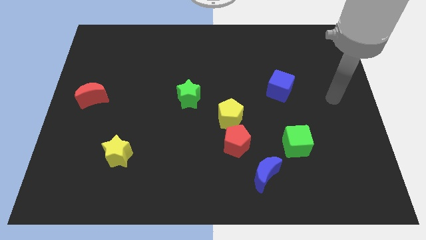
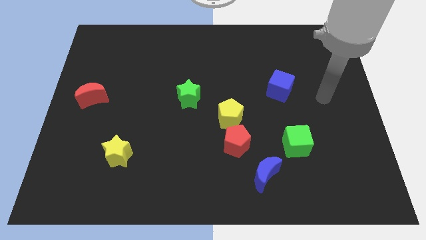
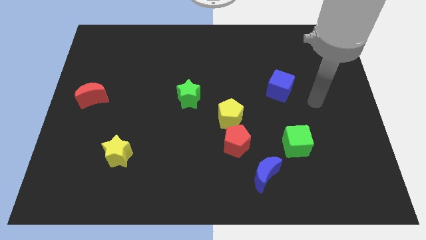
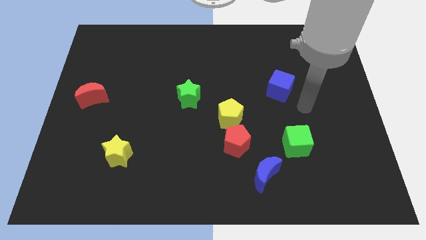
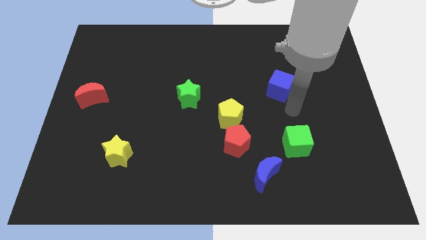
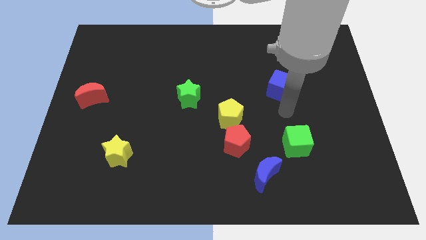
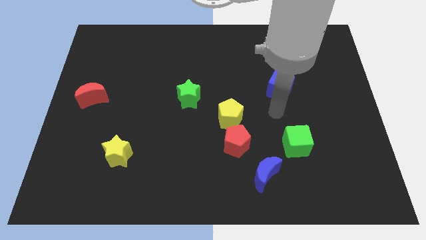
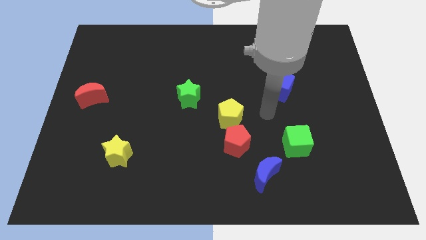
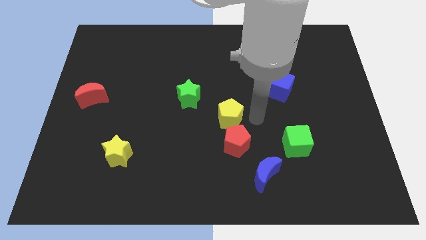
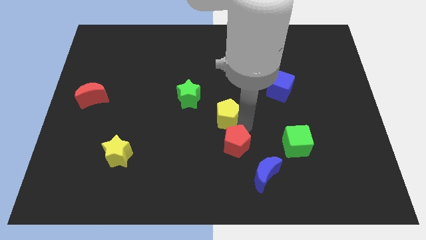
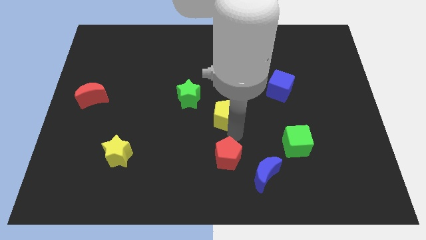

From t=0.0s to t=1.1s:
pull the yellow pentagon apart from the red pentagon

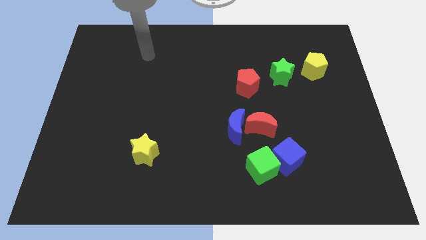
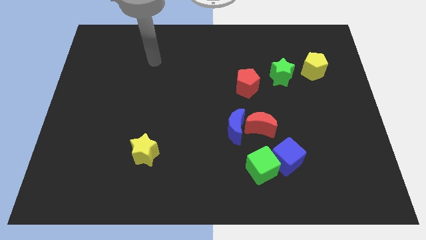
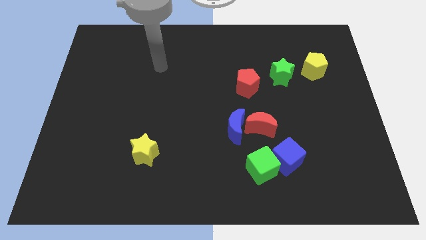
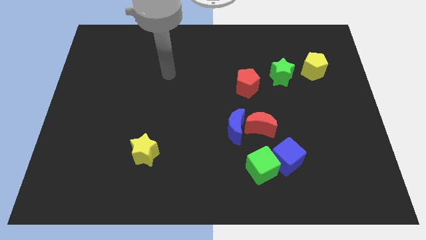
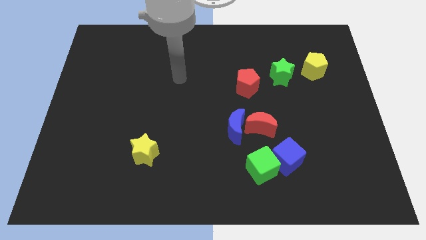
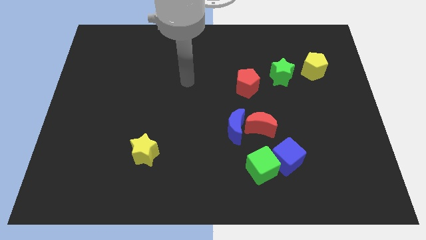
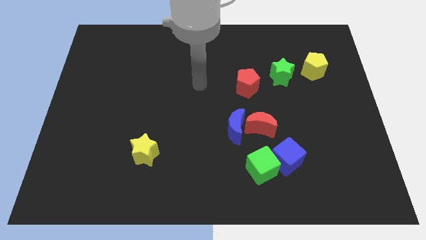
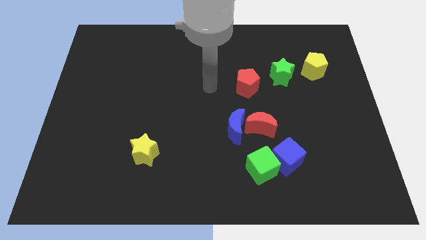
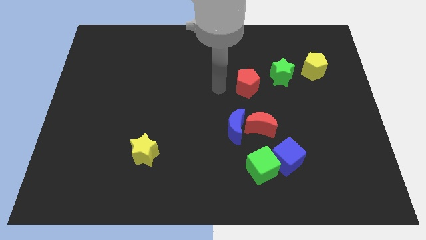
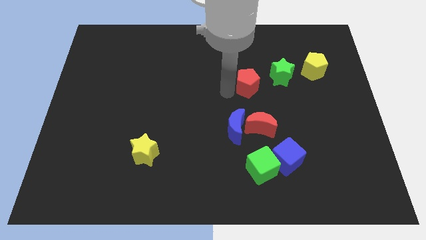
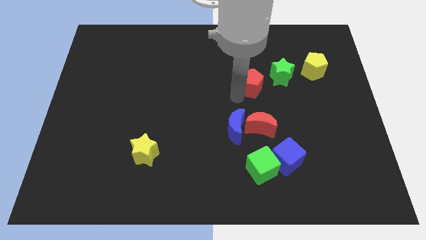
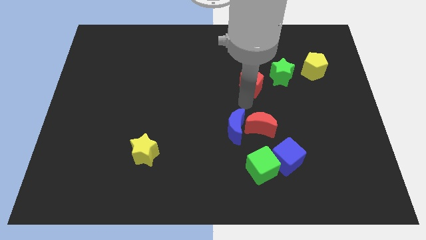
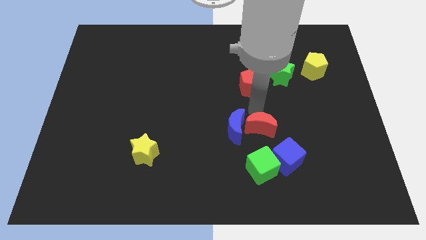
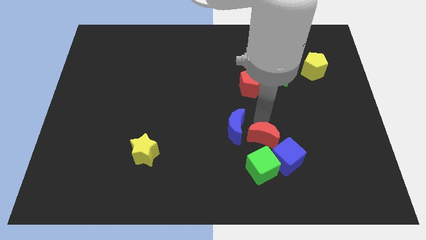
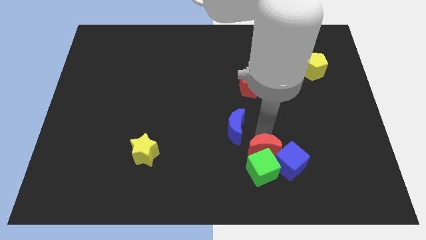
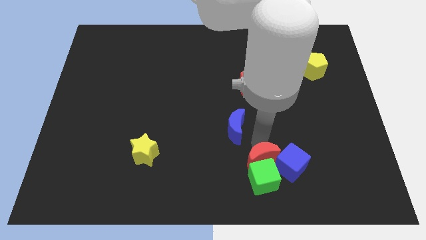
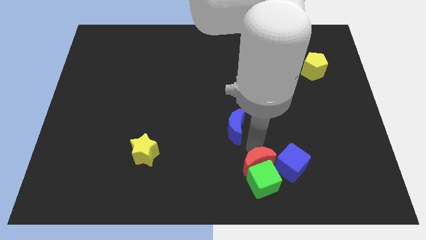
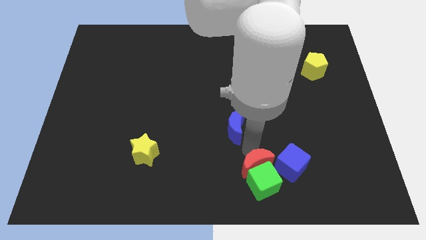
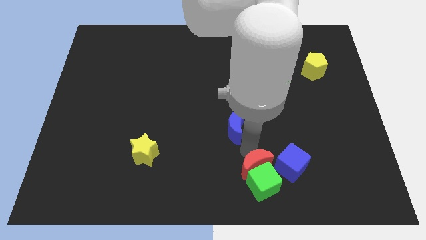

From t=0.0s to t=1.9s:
separate the blue moon from the red moon

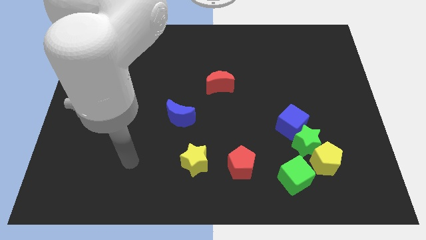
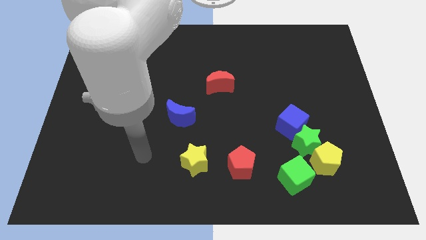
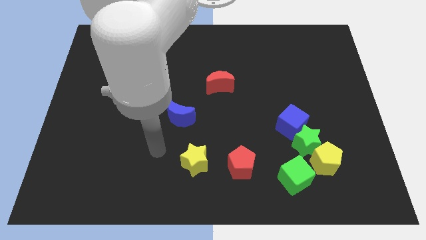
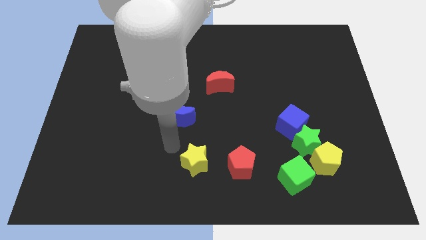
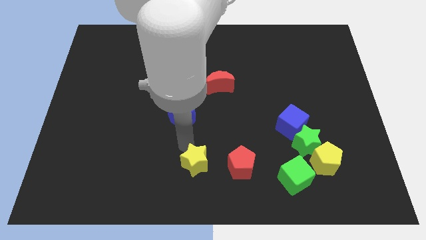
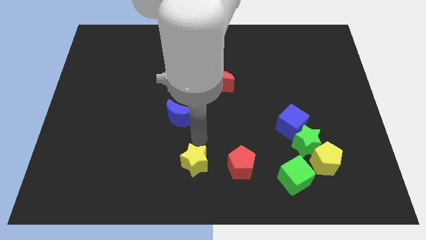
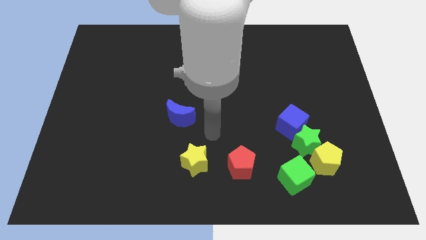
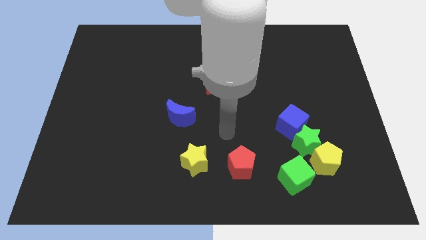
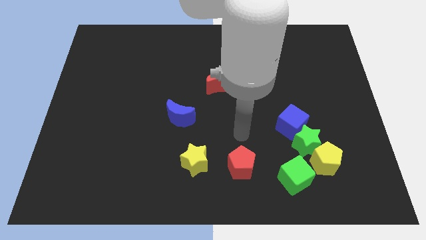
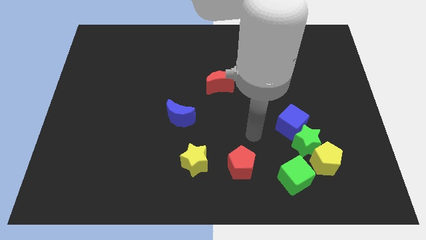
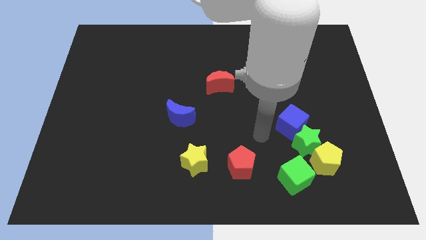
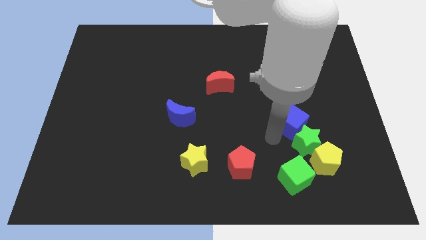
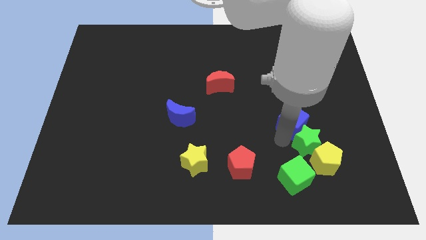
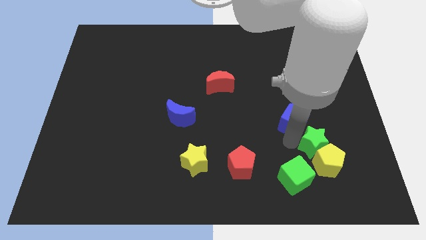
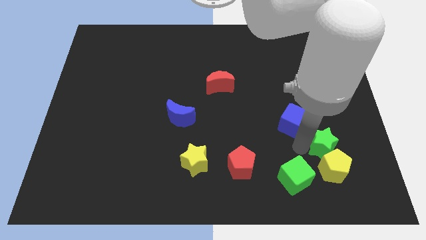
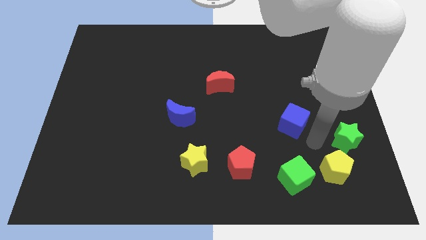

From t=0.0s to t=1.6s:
pull the blue cube apart from the green star

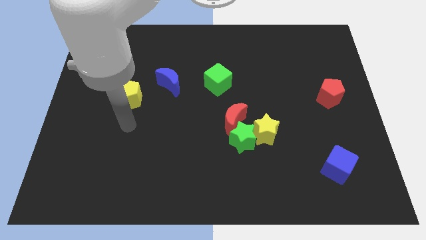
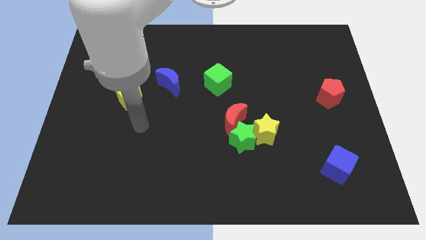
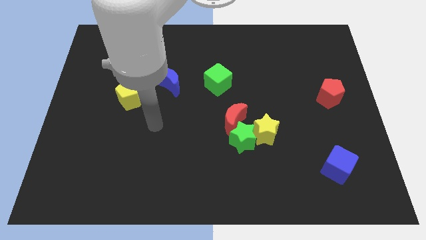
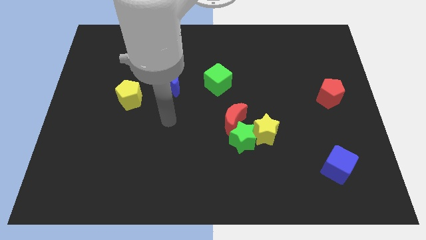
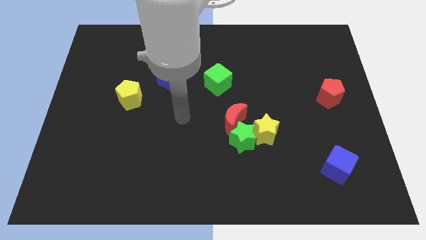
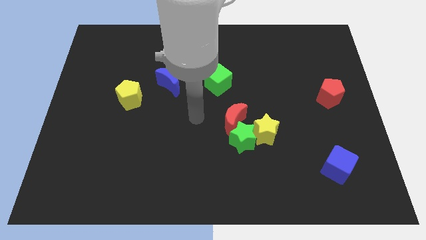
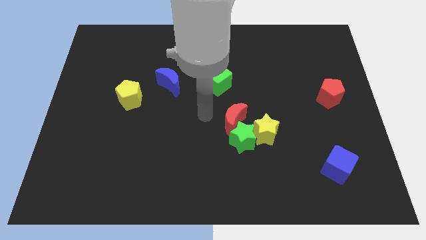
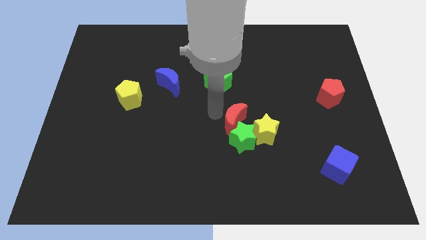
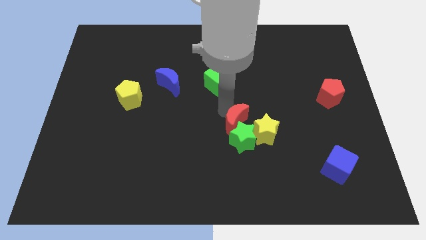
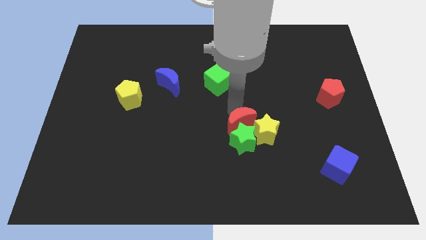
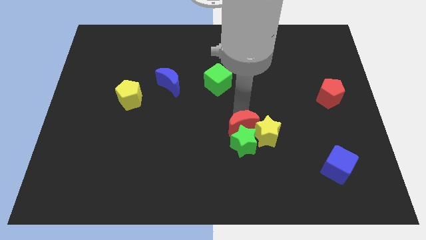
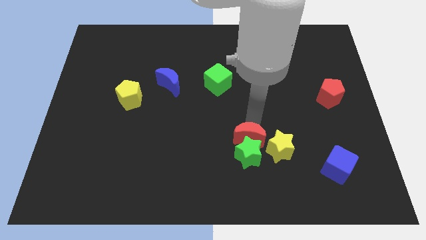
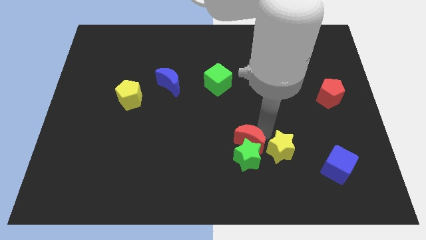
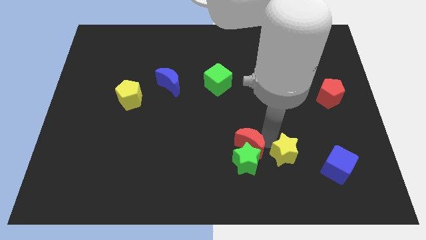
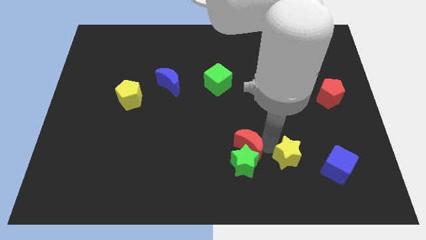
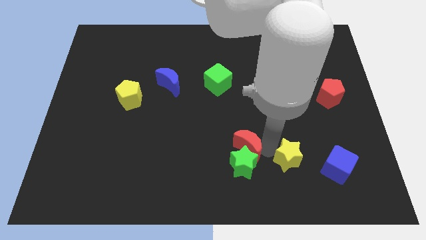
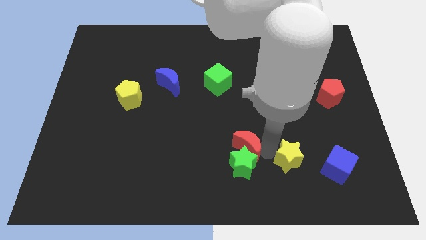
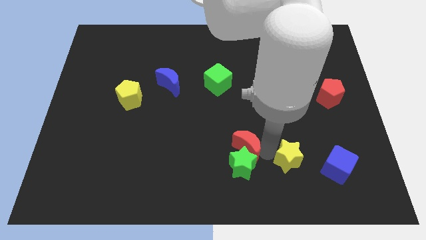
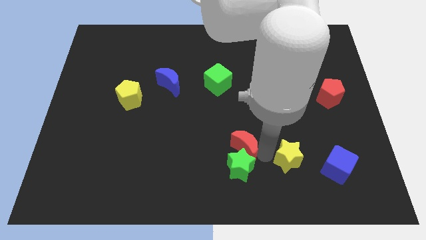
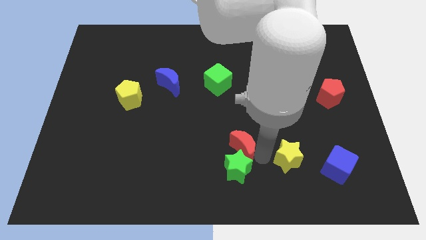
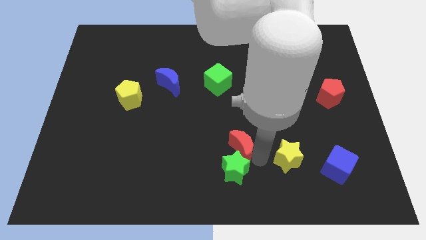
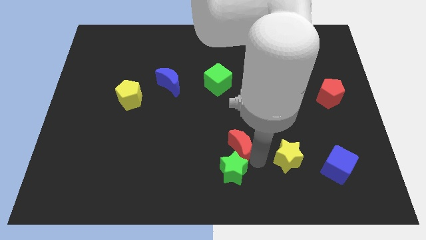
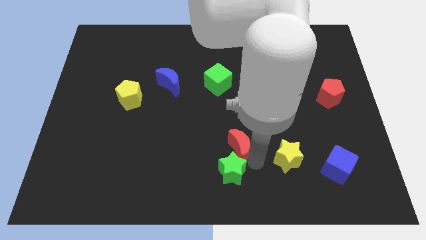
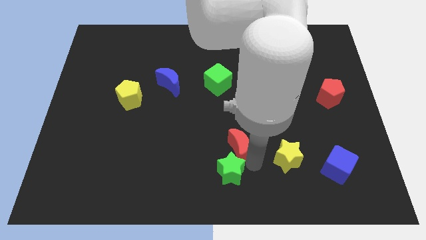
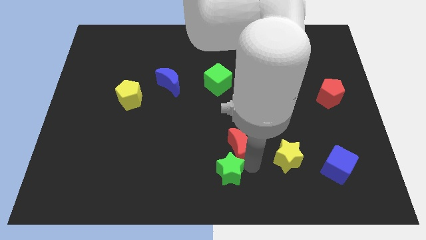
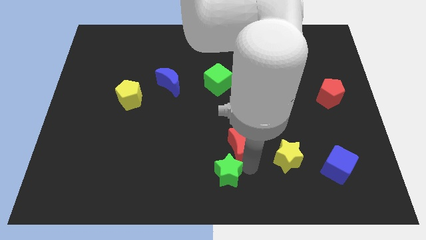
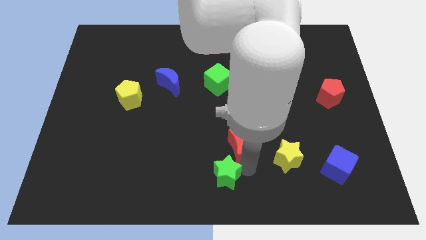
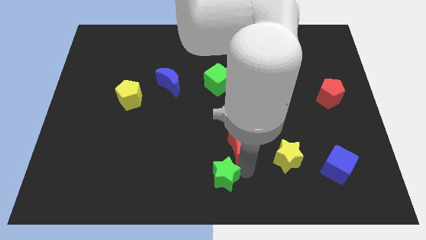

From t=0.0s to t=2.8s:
pull the green star apart from the yellow star and red moon

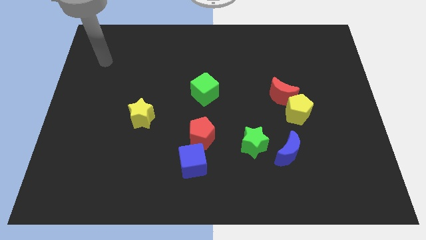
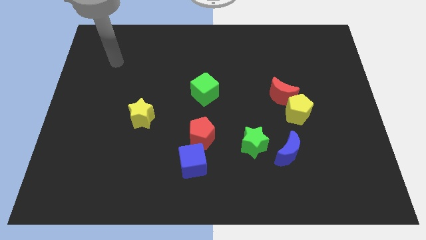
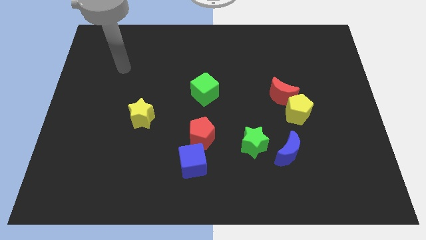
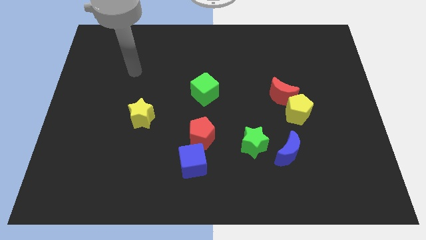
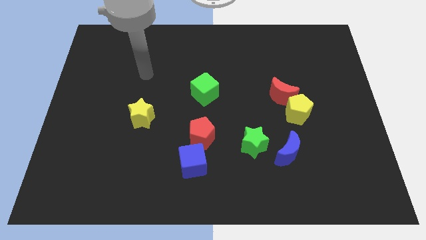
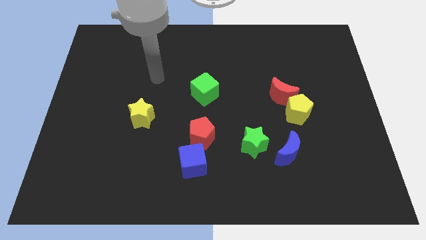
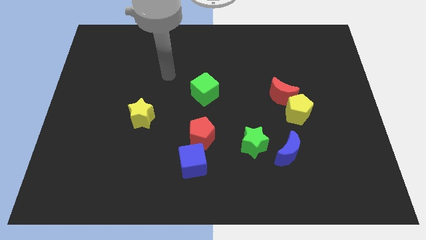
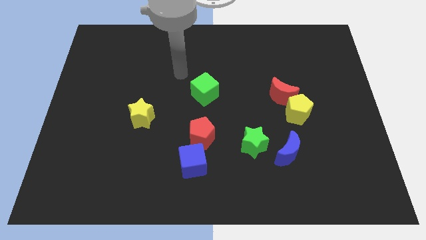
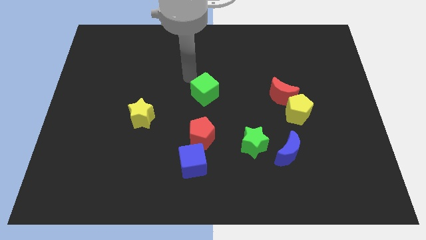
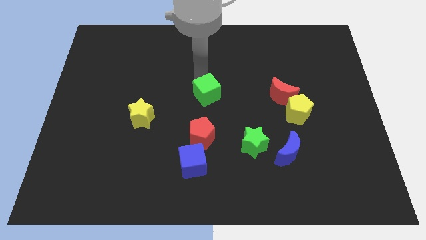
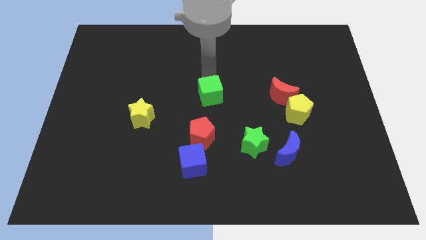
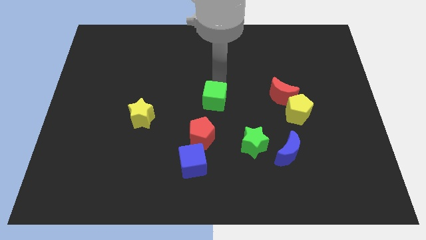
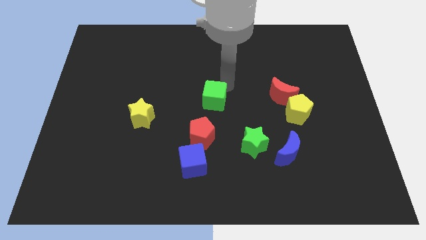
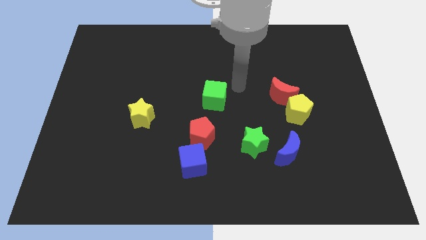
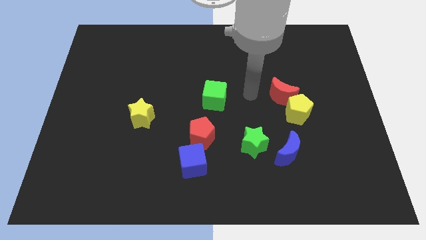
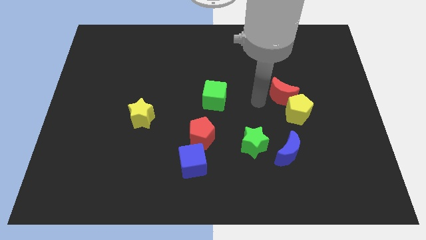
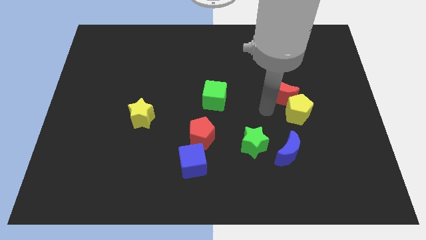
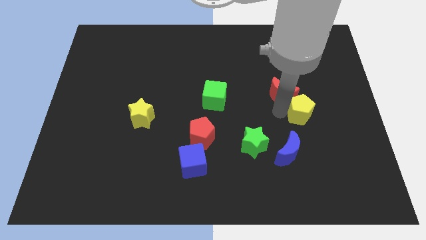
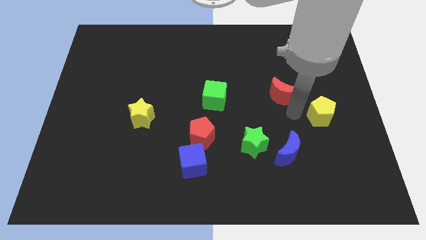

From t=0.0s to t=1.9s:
move the red moon away from the yellow pentagon
